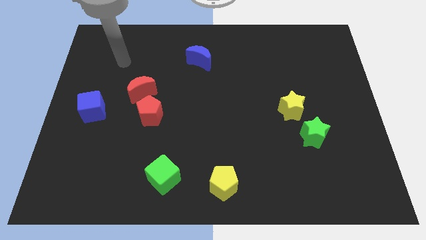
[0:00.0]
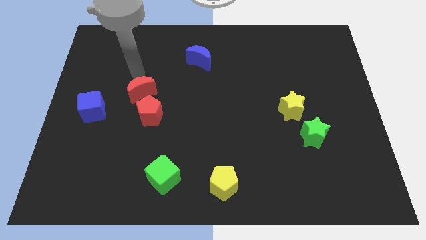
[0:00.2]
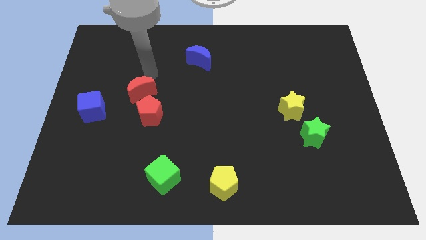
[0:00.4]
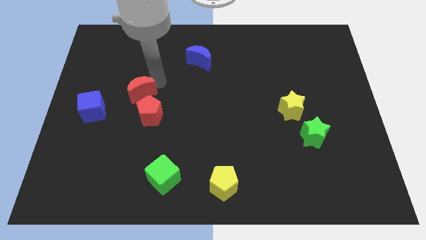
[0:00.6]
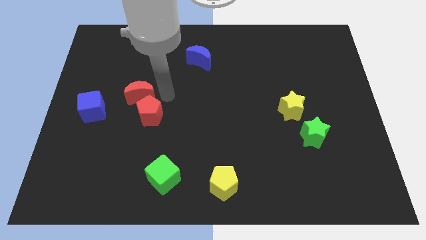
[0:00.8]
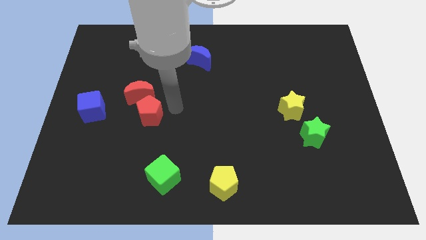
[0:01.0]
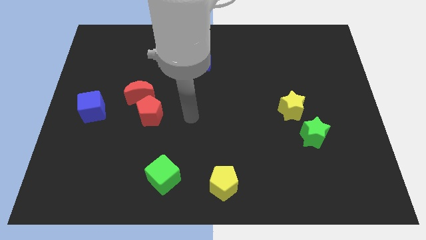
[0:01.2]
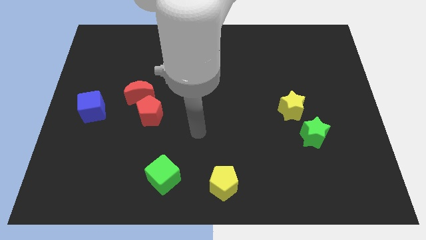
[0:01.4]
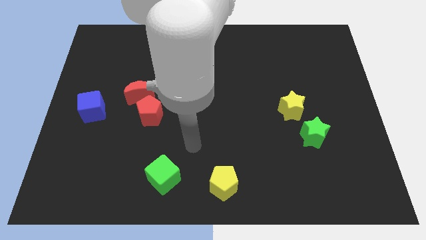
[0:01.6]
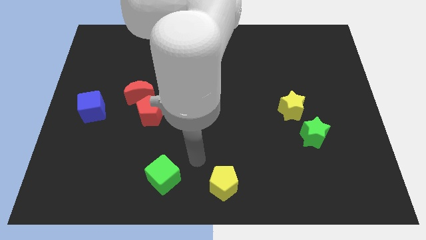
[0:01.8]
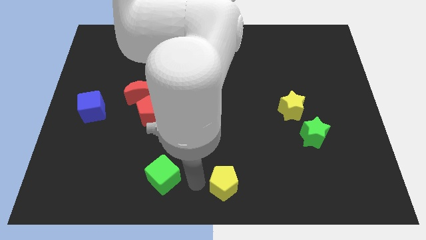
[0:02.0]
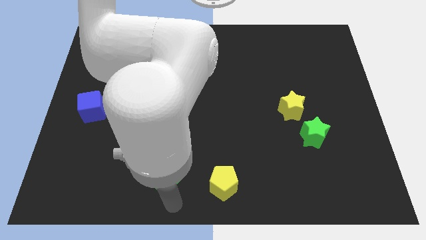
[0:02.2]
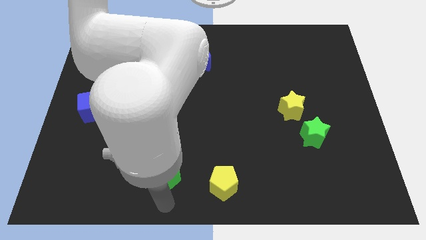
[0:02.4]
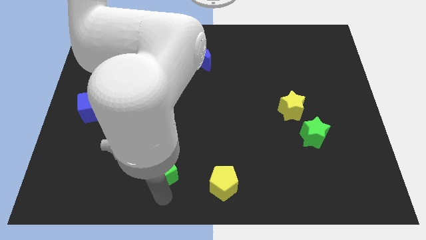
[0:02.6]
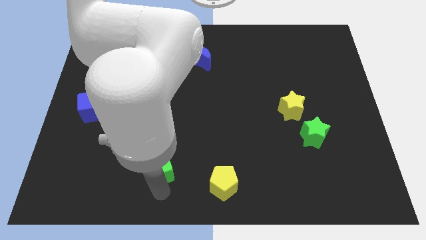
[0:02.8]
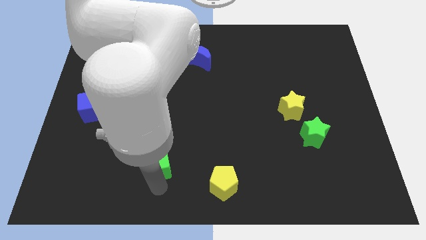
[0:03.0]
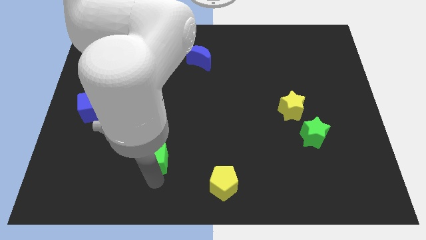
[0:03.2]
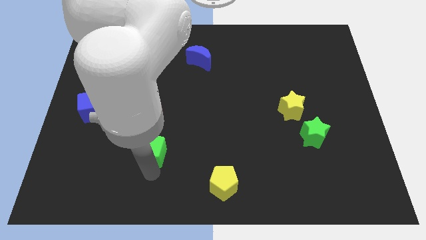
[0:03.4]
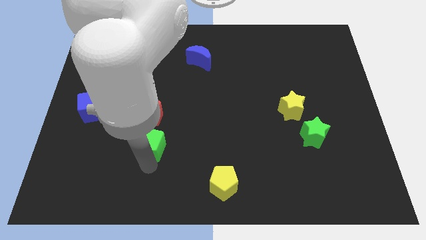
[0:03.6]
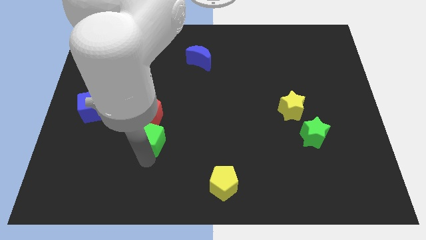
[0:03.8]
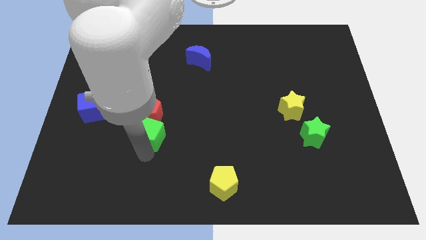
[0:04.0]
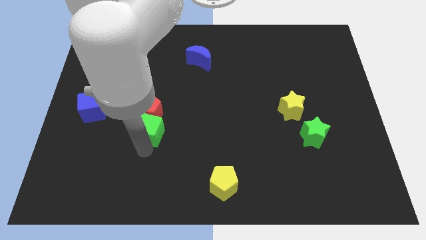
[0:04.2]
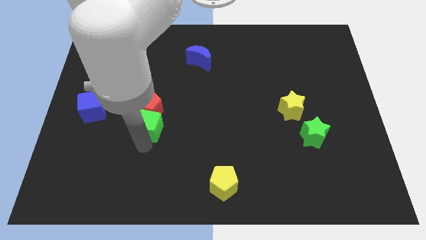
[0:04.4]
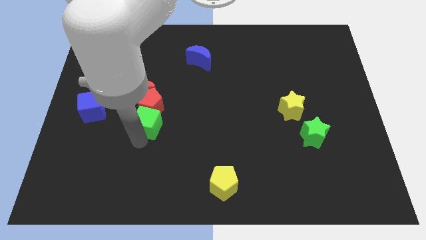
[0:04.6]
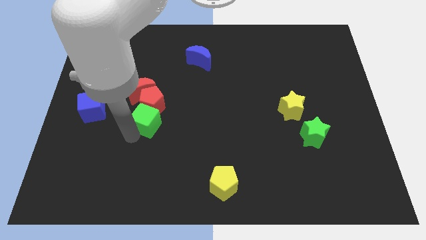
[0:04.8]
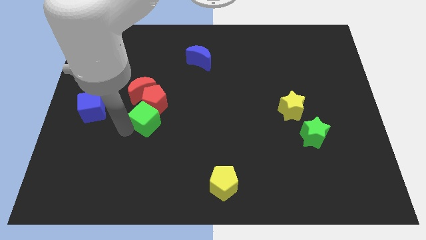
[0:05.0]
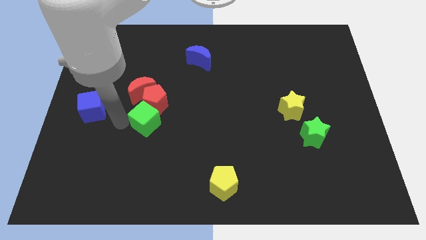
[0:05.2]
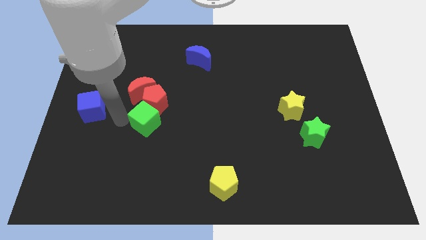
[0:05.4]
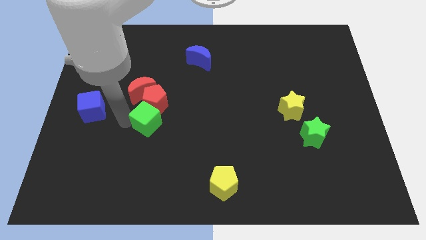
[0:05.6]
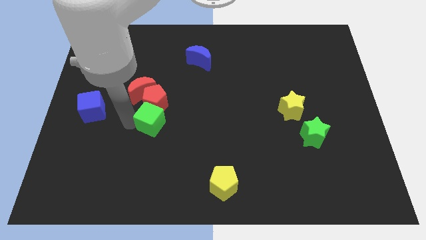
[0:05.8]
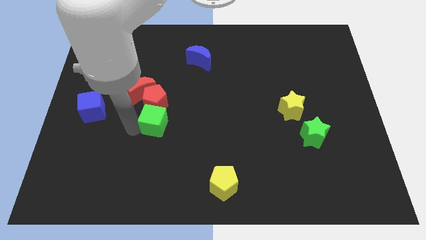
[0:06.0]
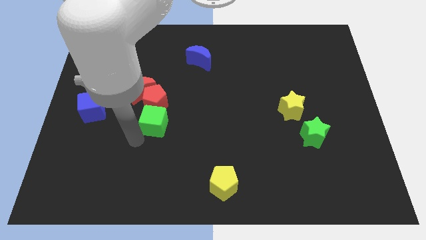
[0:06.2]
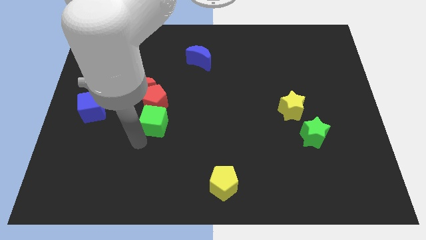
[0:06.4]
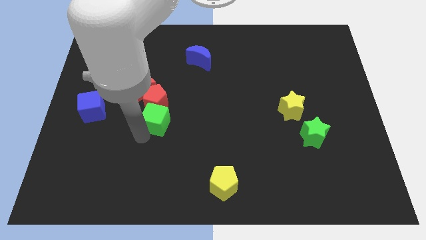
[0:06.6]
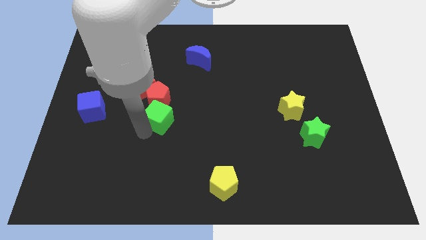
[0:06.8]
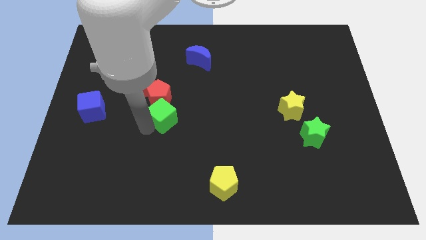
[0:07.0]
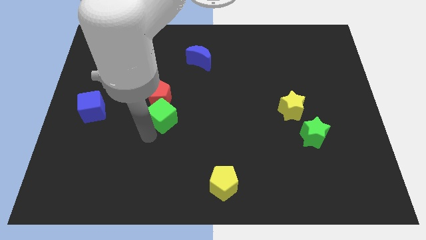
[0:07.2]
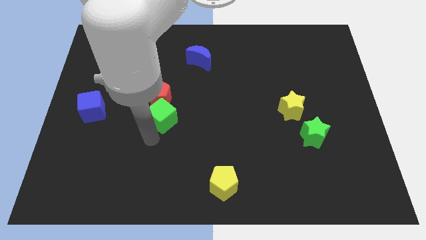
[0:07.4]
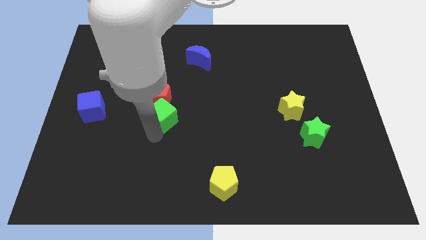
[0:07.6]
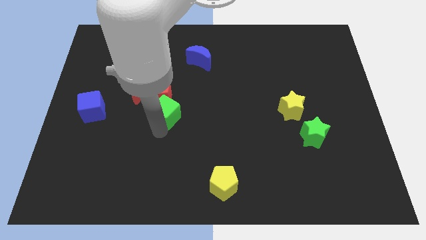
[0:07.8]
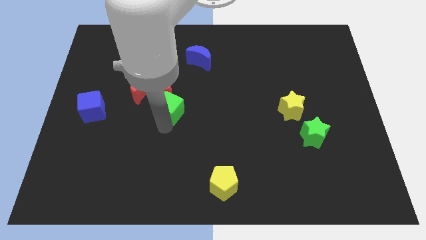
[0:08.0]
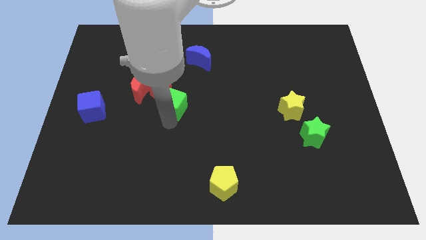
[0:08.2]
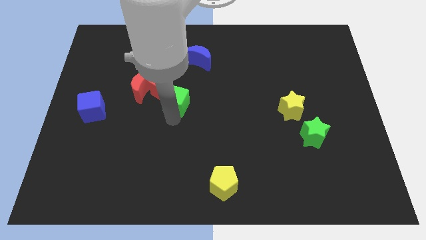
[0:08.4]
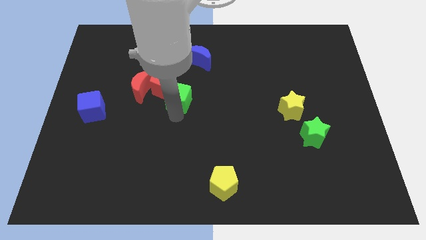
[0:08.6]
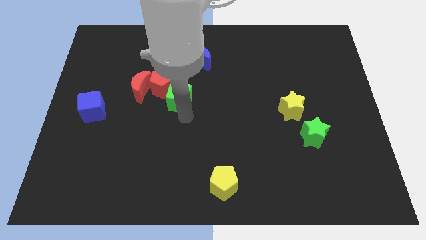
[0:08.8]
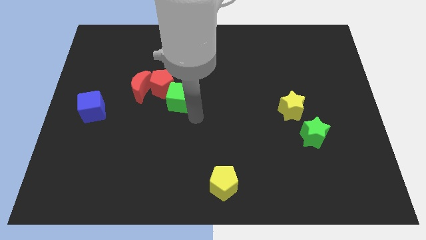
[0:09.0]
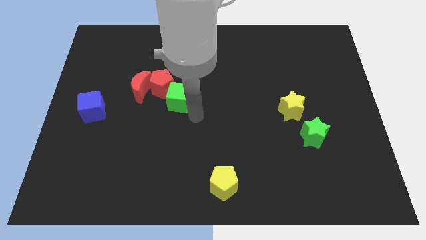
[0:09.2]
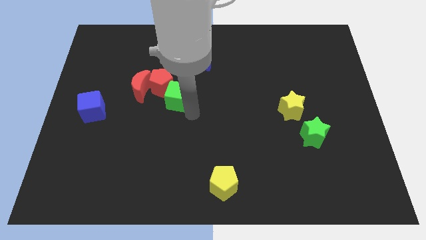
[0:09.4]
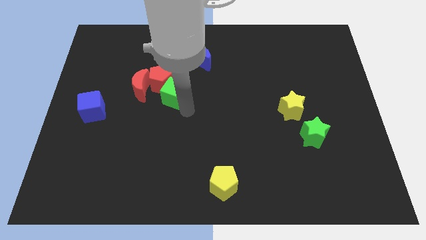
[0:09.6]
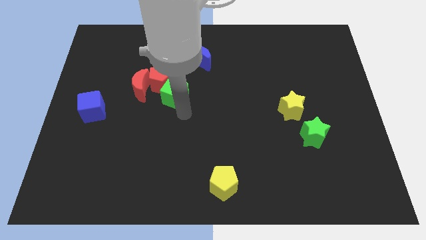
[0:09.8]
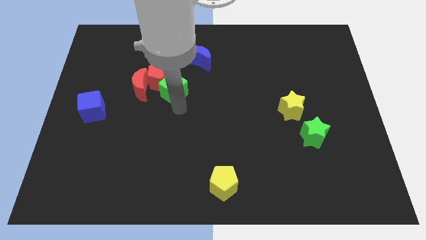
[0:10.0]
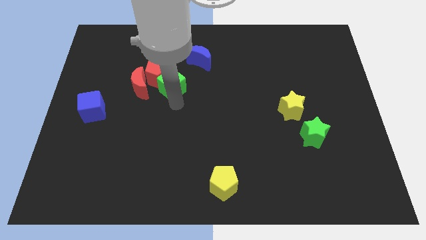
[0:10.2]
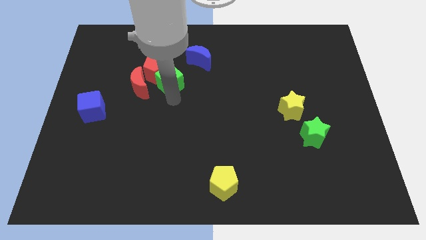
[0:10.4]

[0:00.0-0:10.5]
put the green cube diagonally up and to the right of the red moon

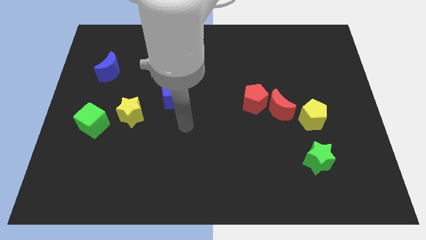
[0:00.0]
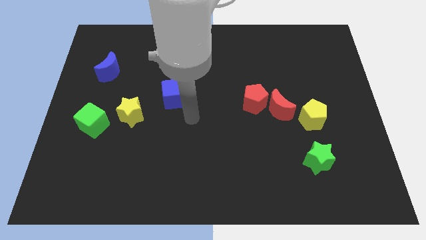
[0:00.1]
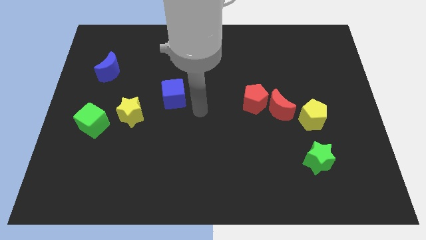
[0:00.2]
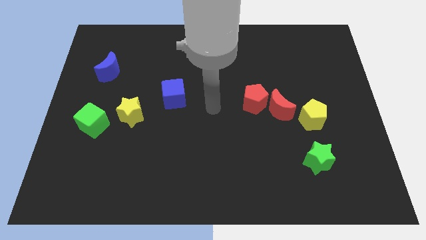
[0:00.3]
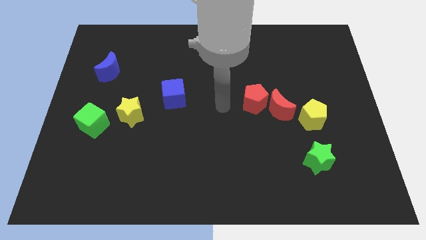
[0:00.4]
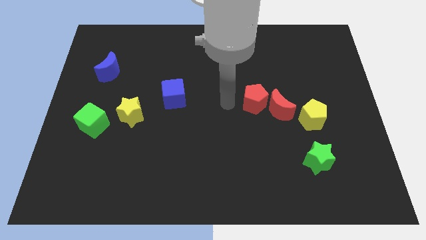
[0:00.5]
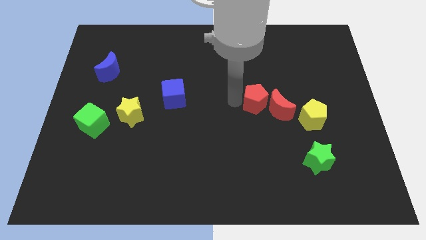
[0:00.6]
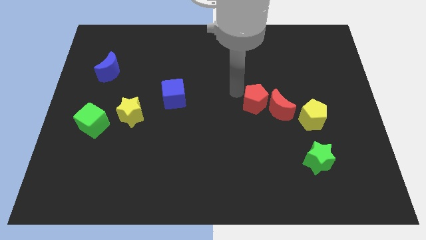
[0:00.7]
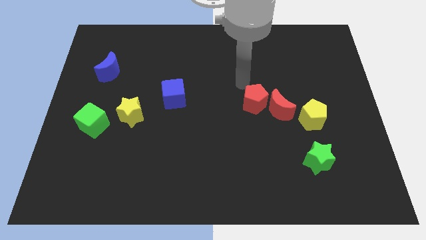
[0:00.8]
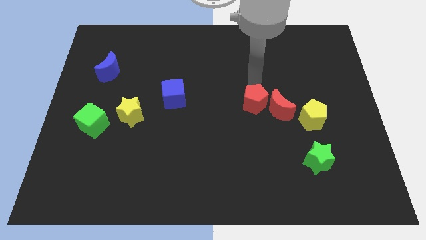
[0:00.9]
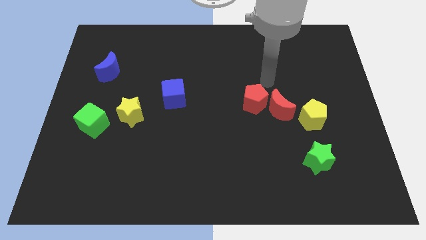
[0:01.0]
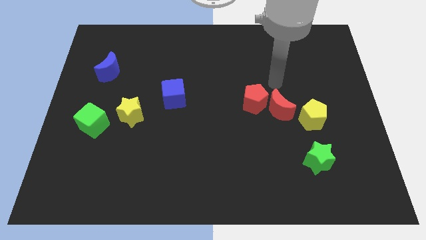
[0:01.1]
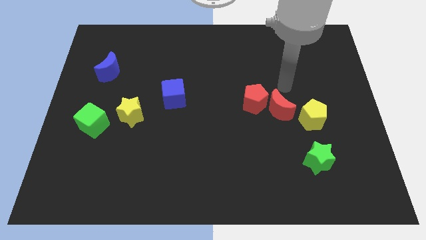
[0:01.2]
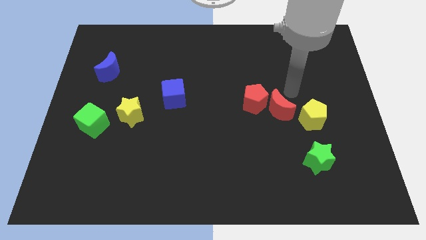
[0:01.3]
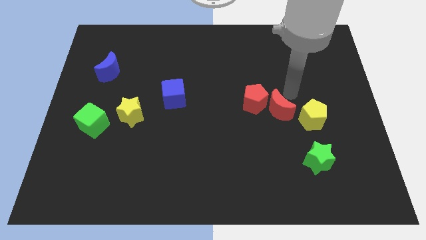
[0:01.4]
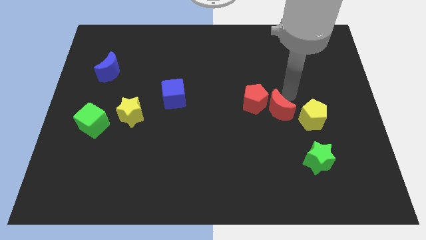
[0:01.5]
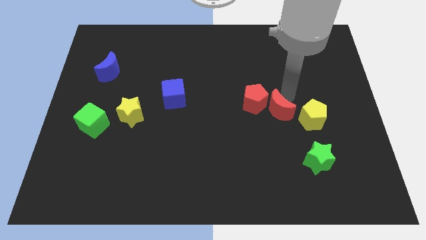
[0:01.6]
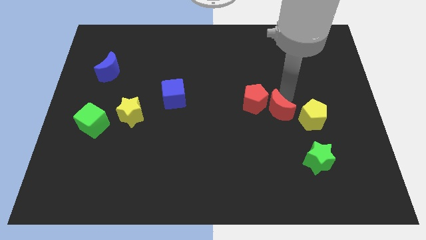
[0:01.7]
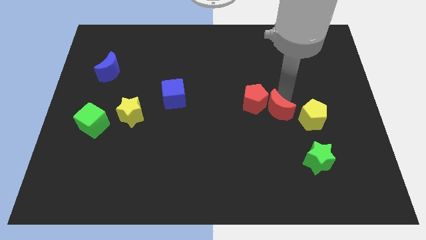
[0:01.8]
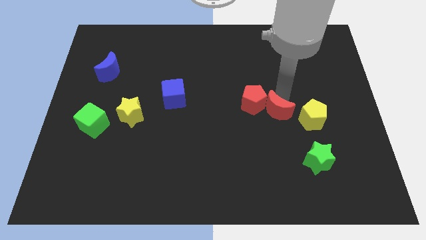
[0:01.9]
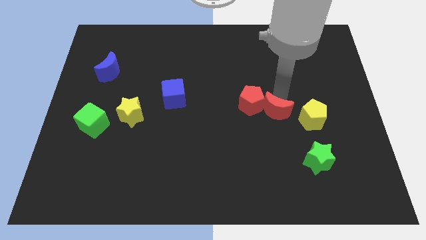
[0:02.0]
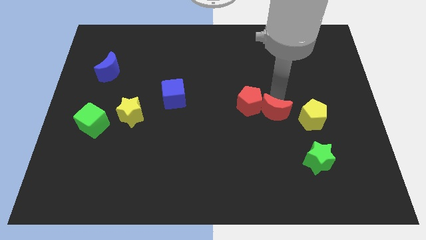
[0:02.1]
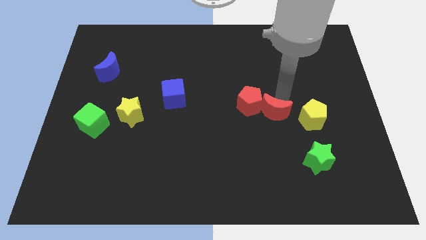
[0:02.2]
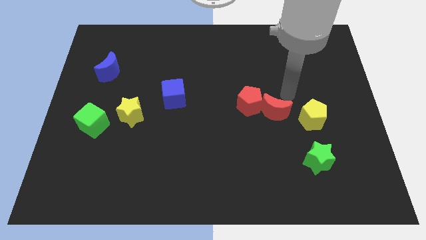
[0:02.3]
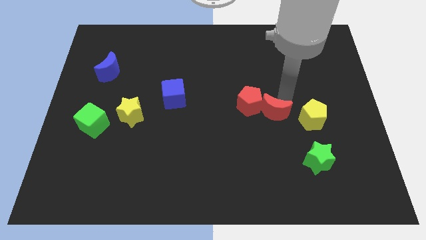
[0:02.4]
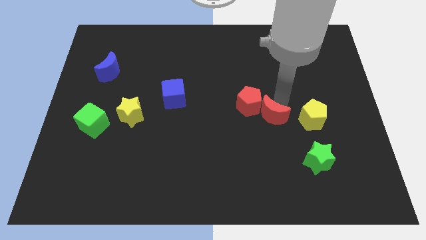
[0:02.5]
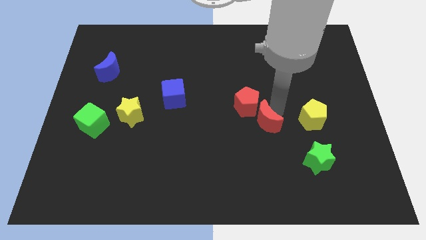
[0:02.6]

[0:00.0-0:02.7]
put the red moon to the bottom side of the red pentagon
